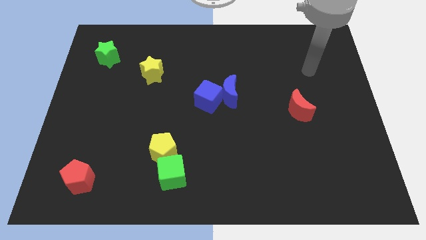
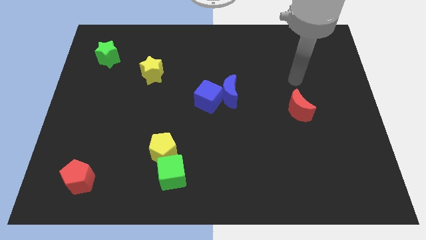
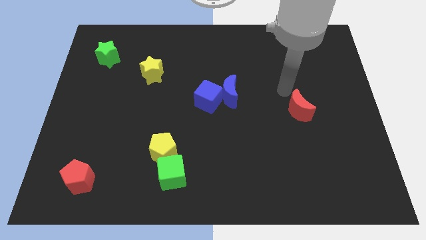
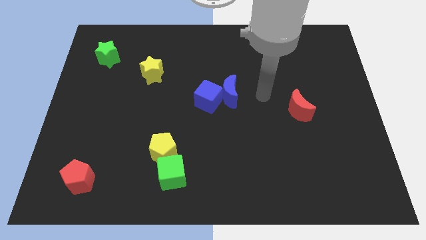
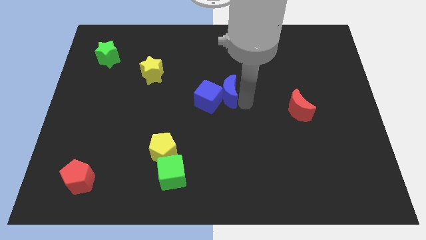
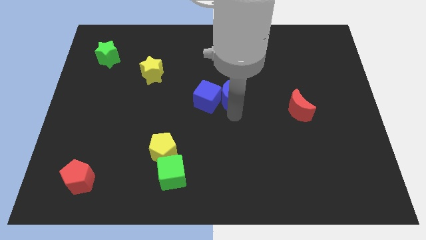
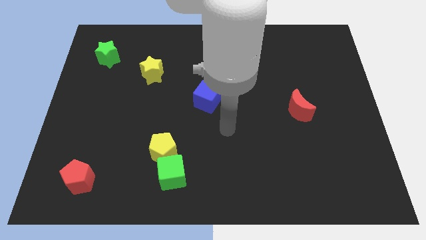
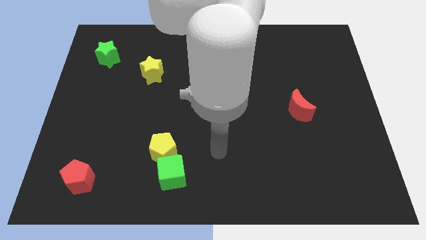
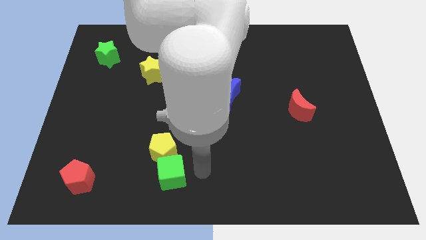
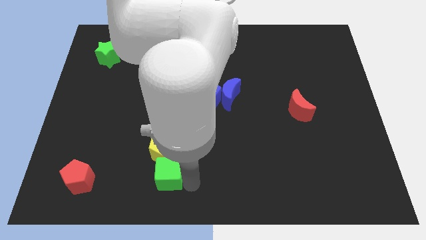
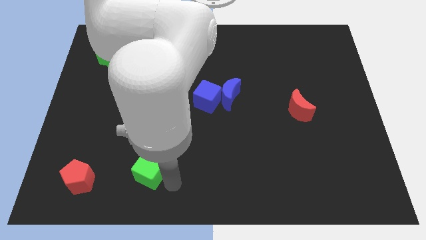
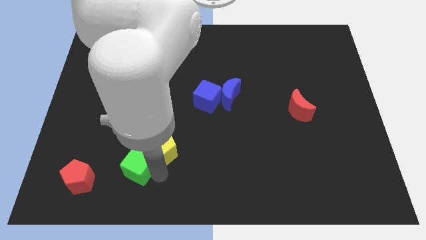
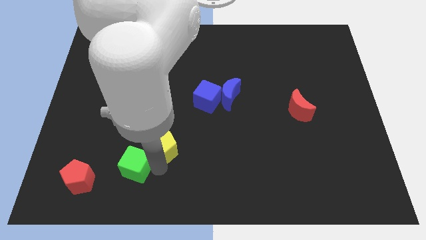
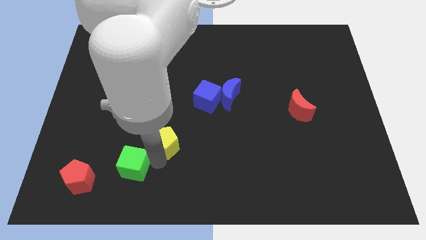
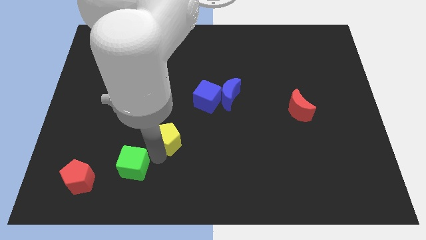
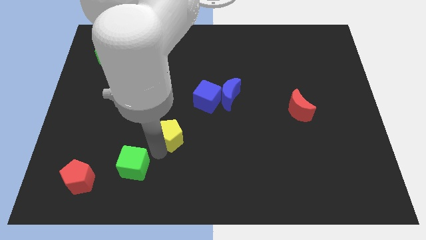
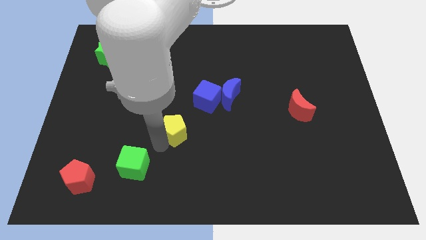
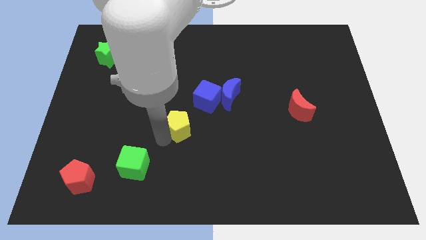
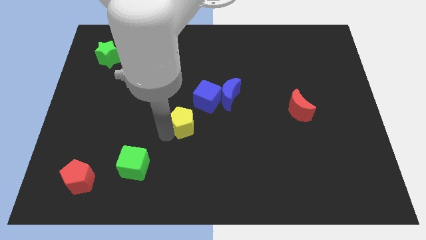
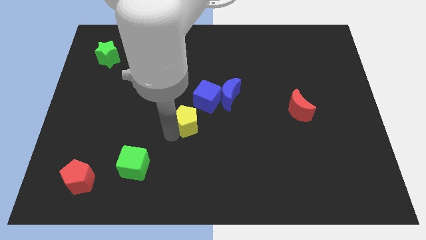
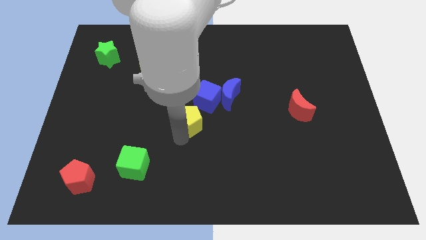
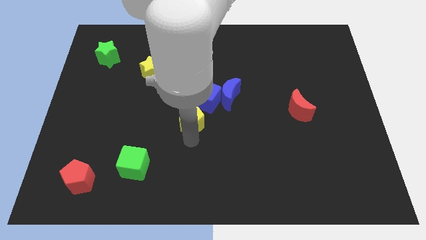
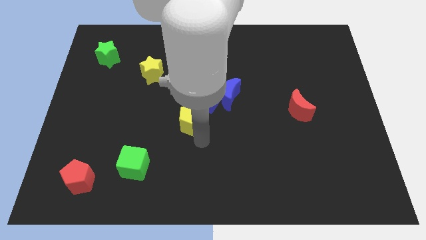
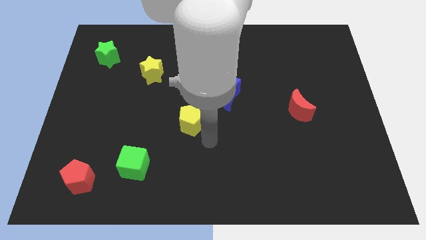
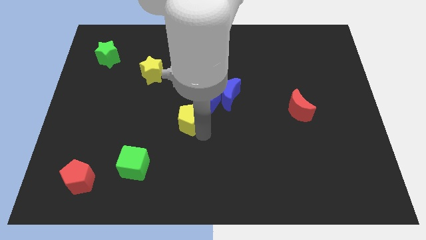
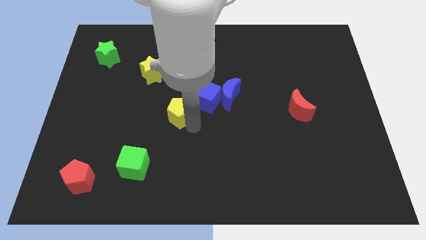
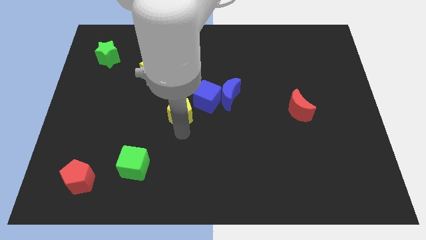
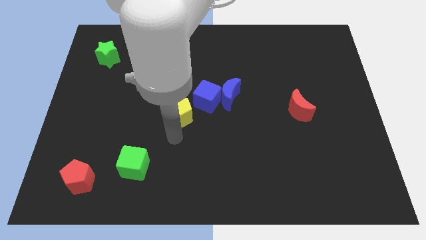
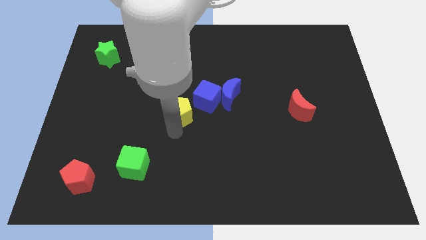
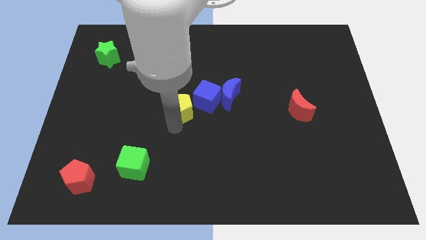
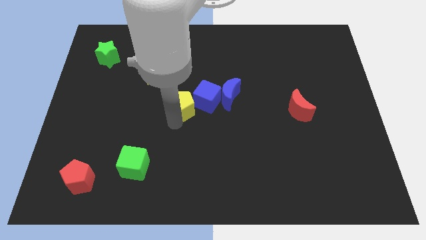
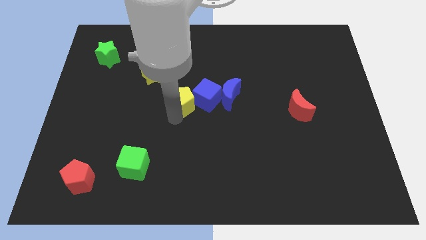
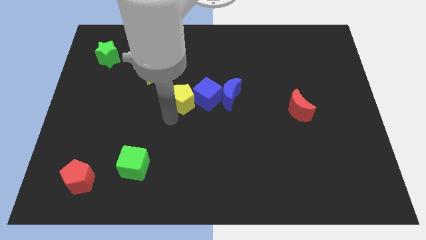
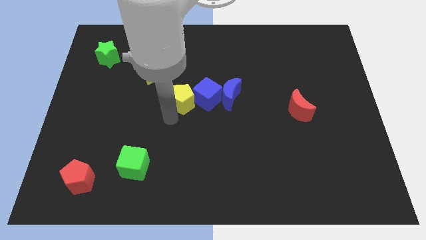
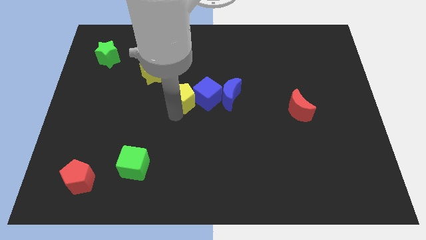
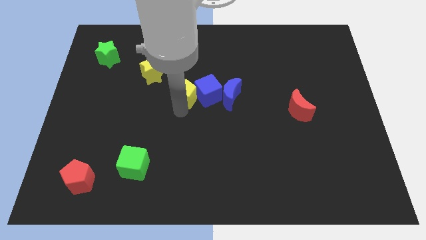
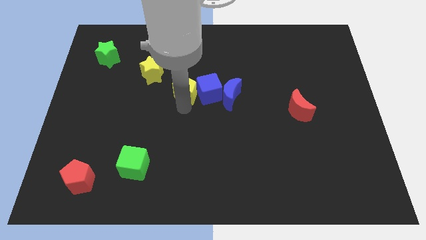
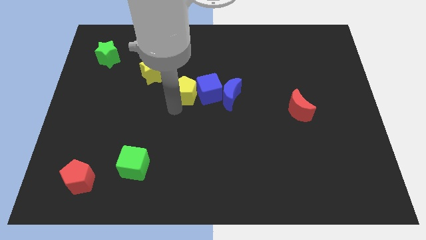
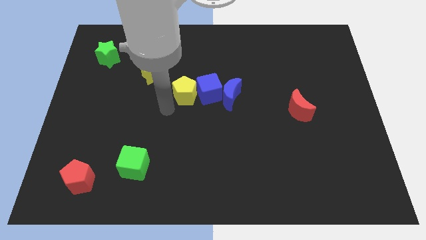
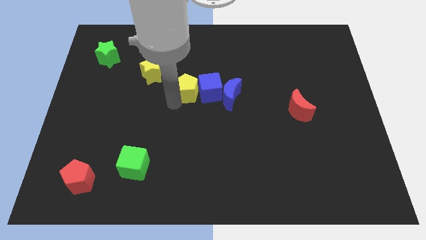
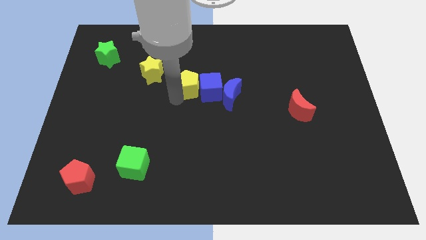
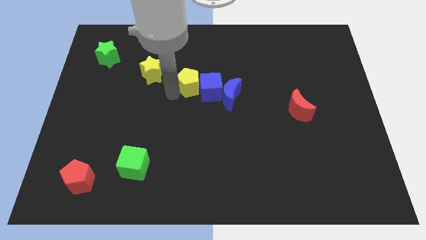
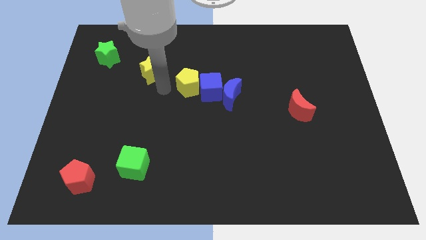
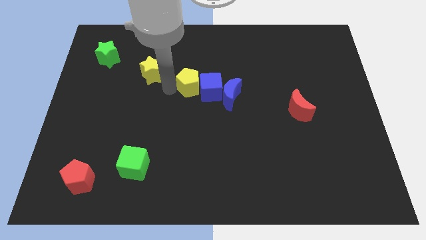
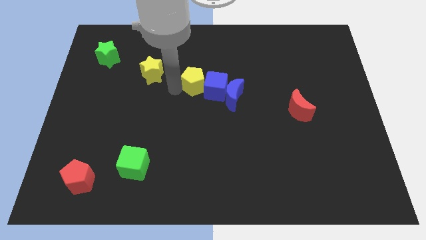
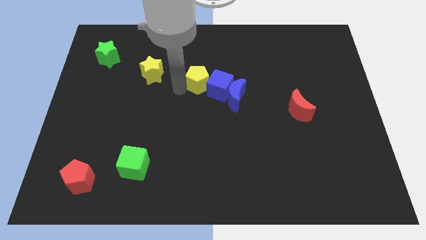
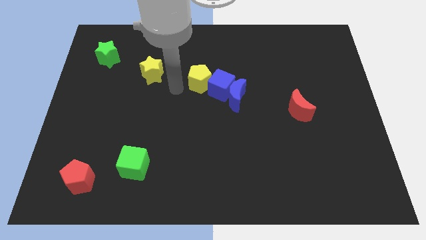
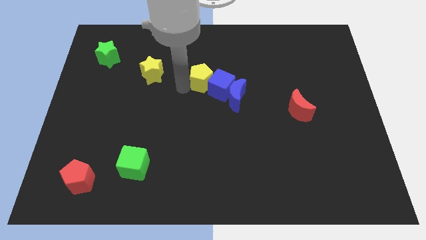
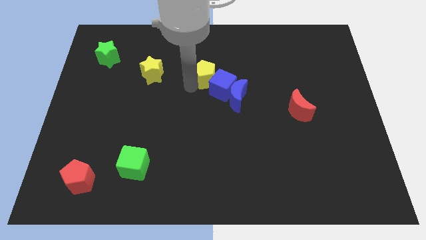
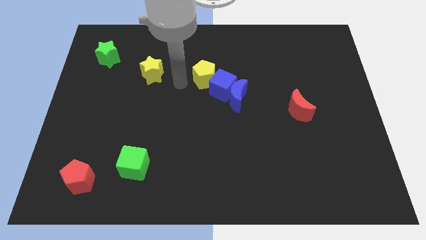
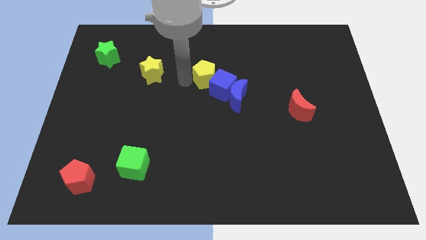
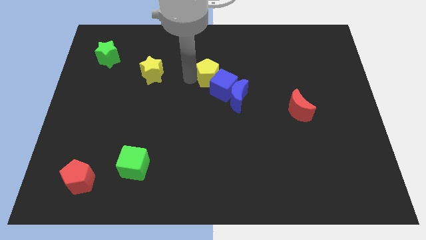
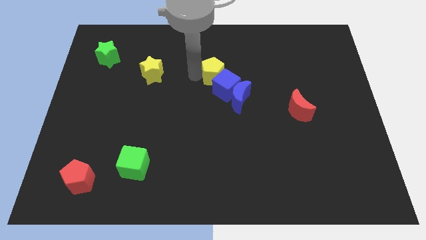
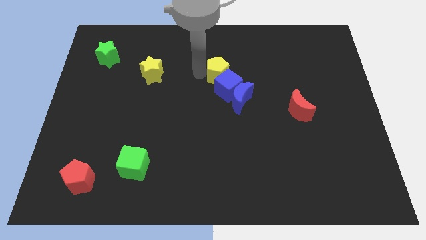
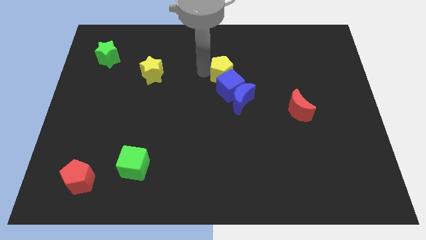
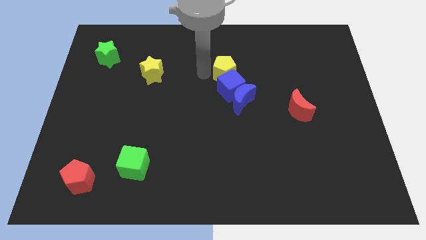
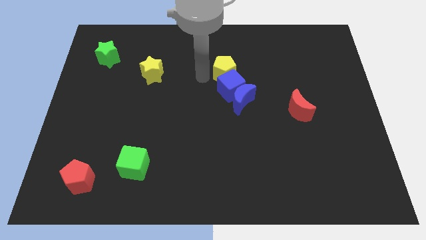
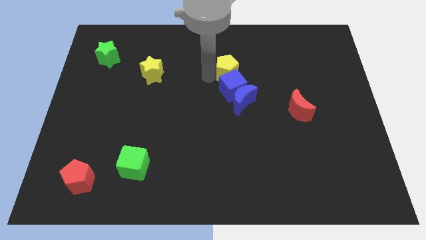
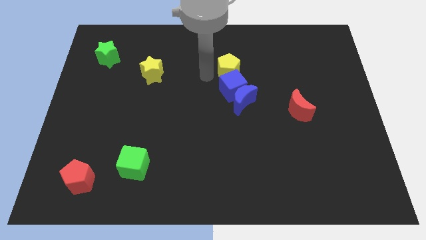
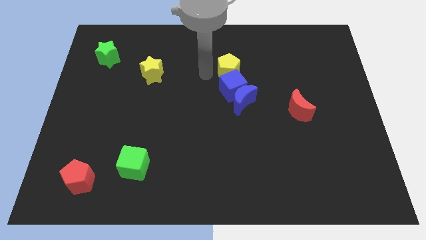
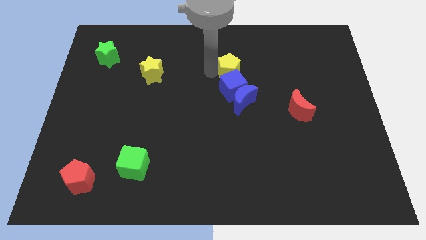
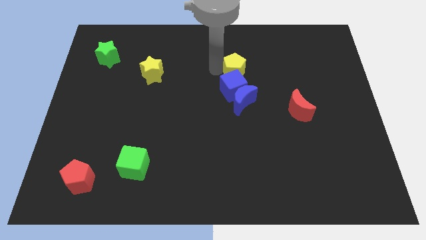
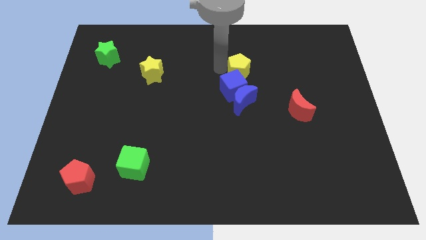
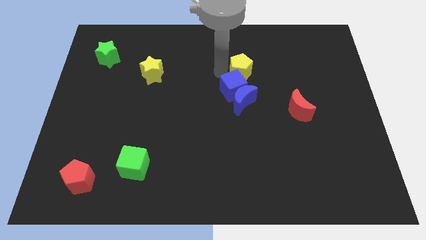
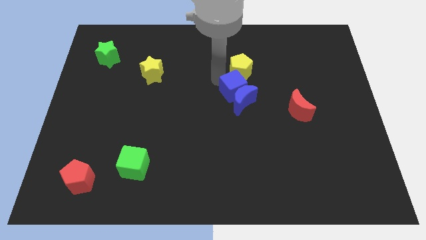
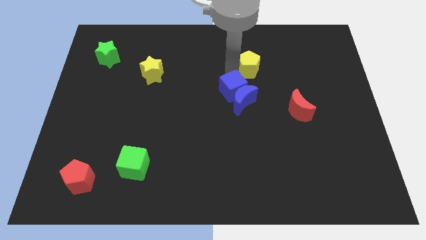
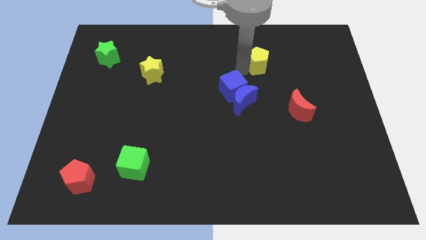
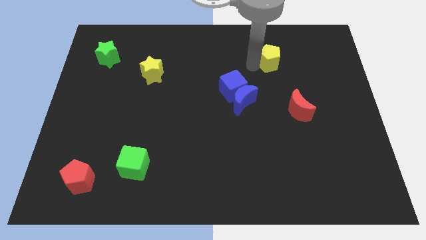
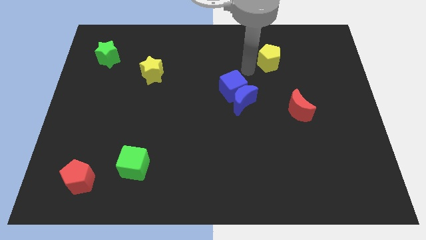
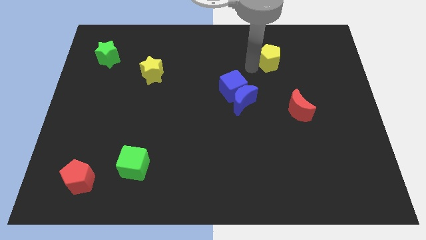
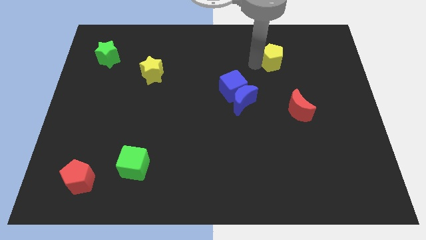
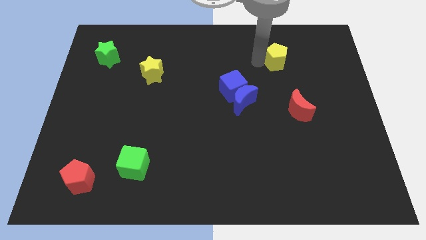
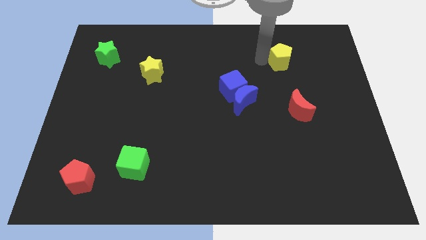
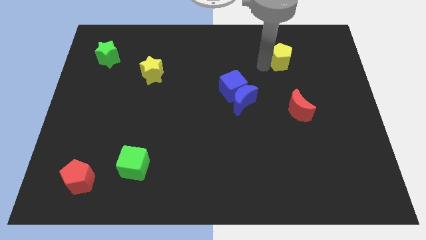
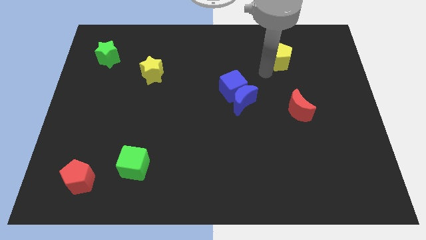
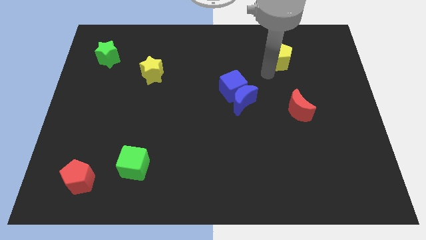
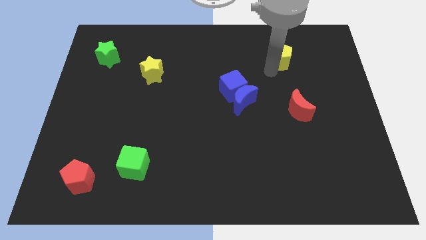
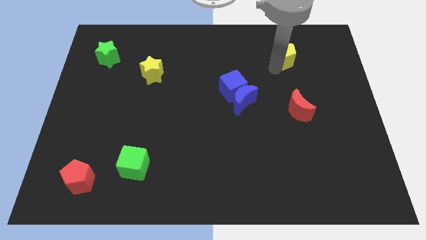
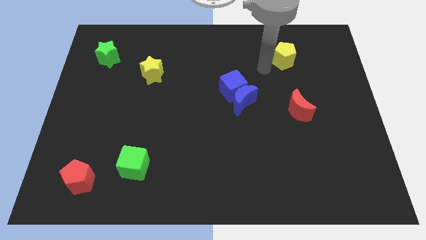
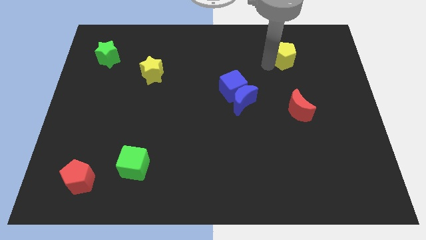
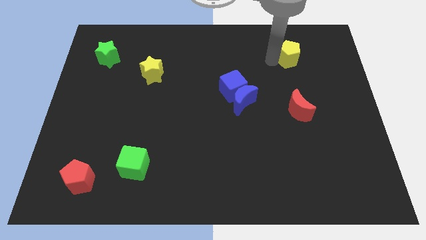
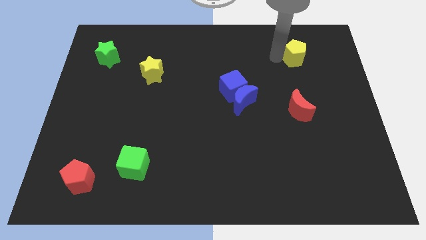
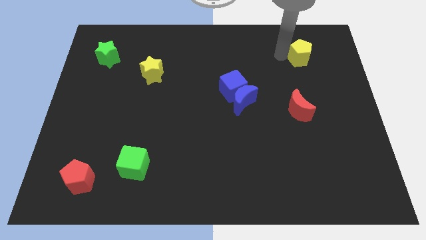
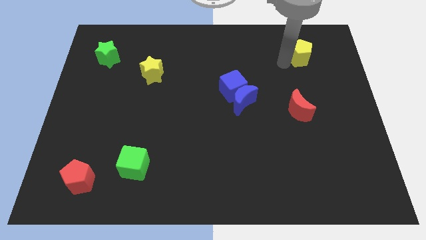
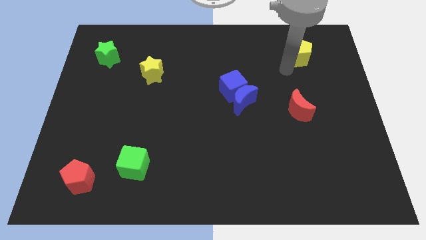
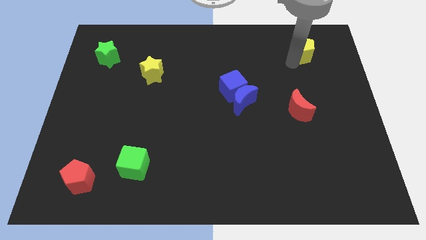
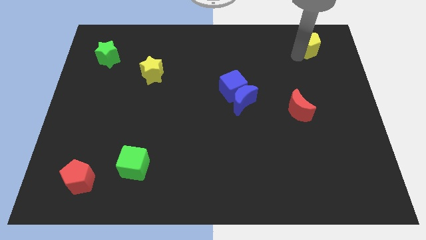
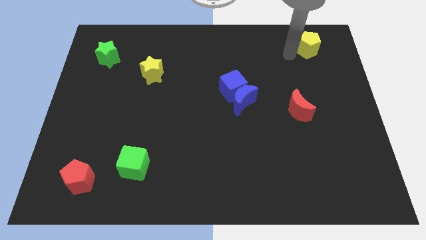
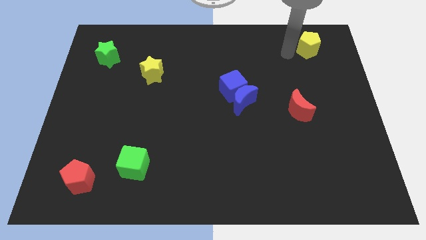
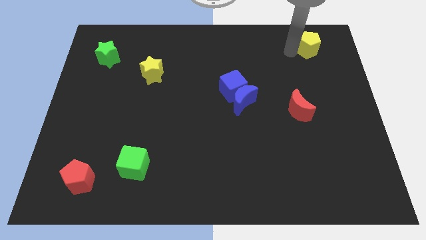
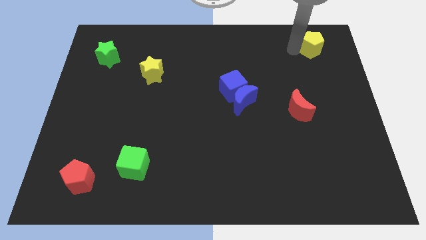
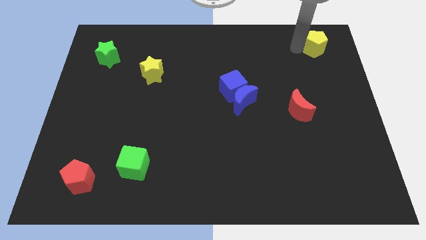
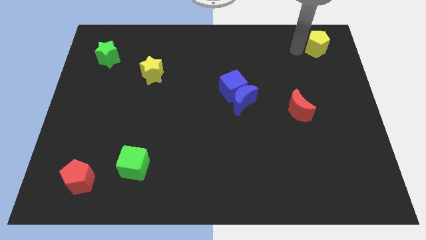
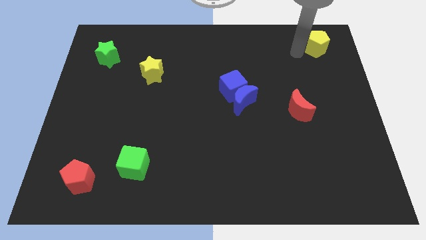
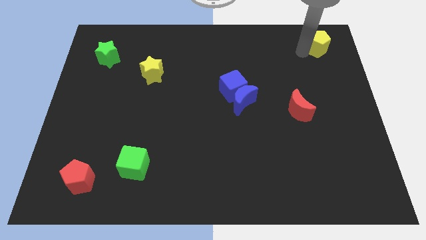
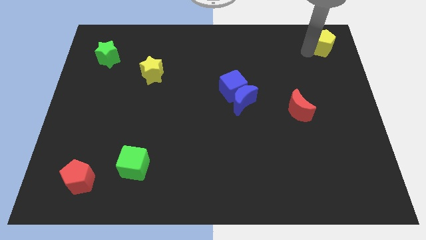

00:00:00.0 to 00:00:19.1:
move the yellow pentagon to the top right
